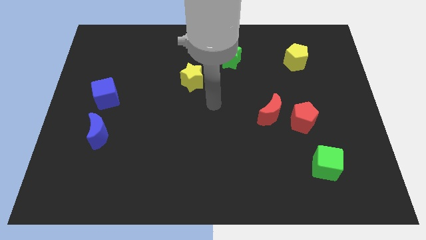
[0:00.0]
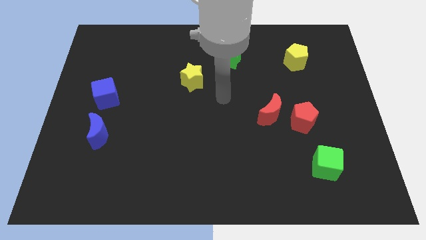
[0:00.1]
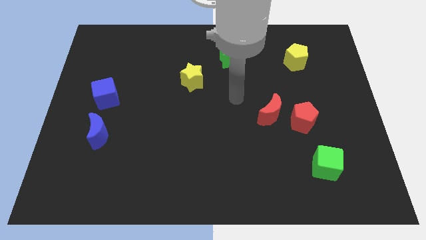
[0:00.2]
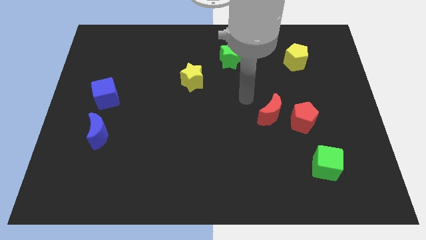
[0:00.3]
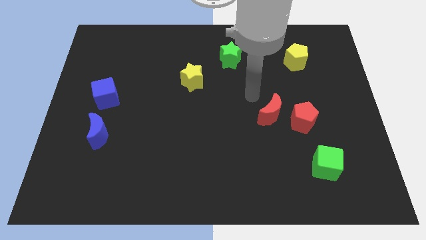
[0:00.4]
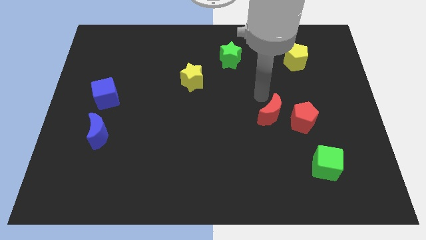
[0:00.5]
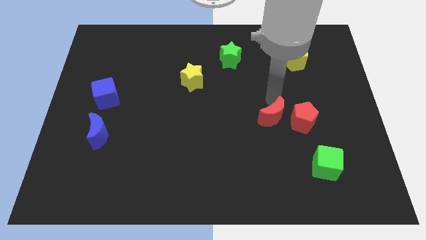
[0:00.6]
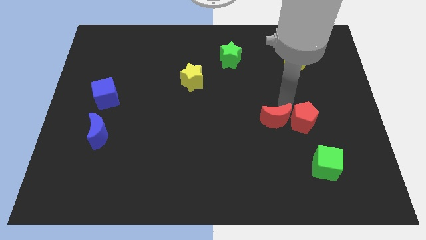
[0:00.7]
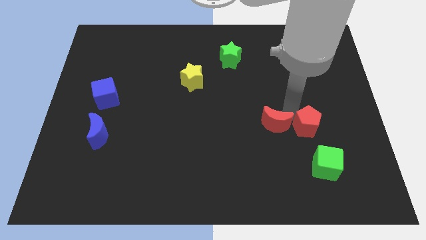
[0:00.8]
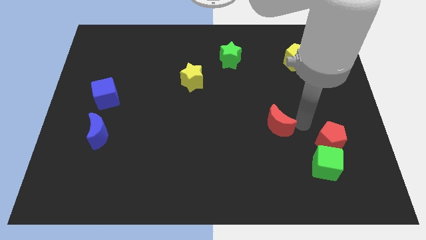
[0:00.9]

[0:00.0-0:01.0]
separate the red moon from the red pentagon

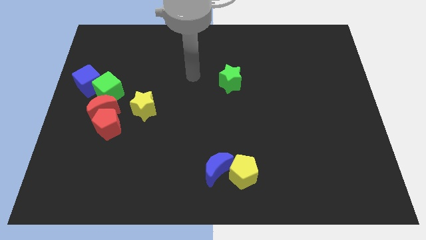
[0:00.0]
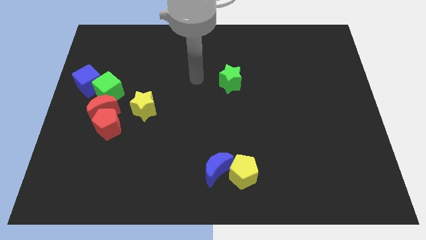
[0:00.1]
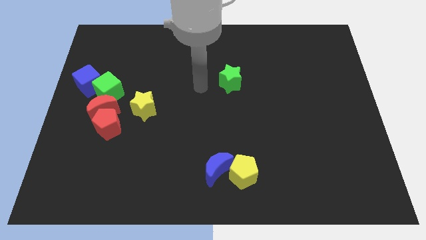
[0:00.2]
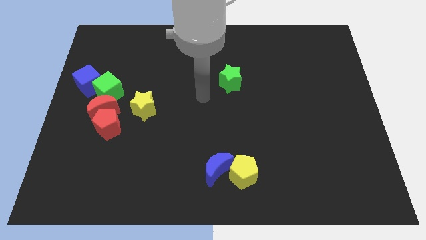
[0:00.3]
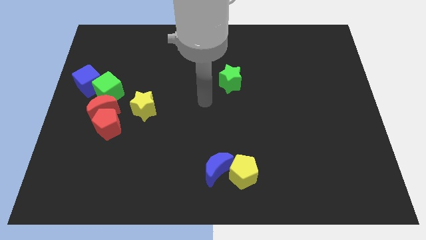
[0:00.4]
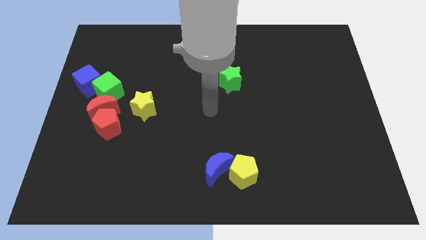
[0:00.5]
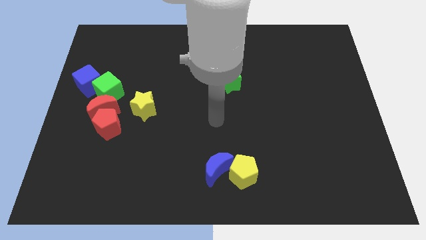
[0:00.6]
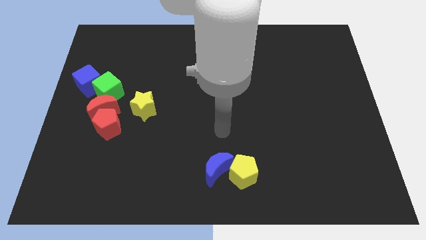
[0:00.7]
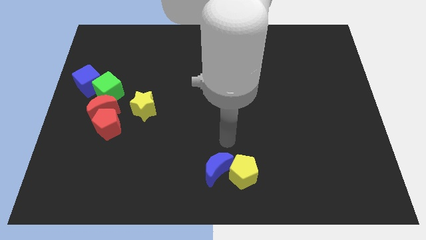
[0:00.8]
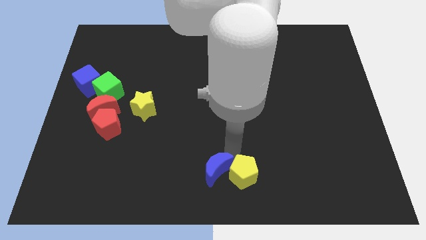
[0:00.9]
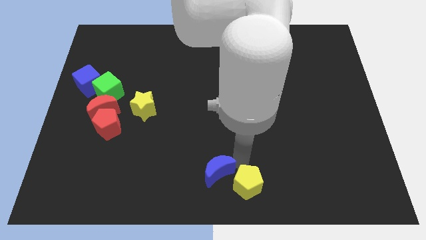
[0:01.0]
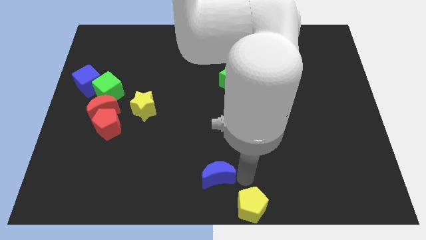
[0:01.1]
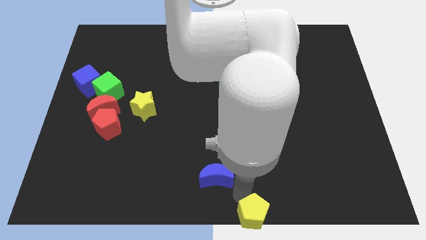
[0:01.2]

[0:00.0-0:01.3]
separate the blue moon from the yellow pentagon

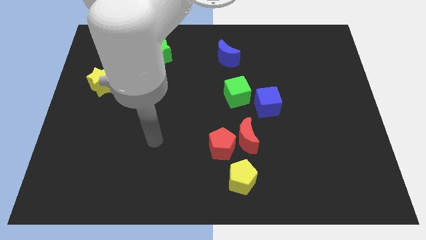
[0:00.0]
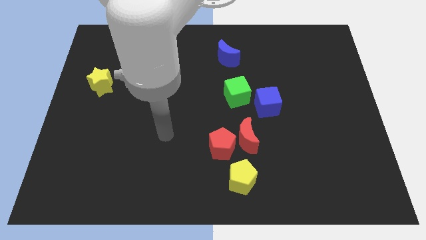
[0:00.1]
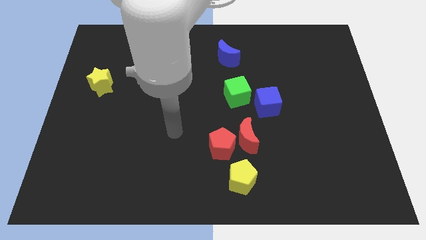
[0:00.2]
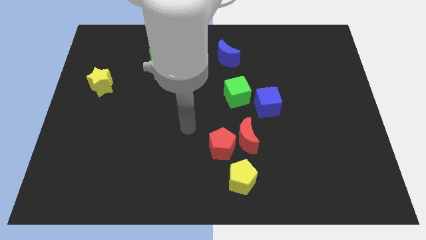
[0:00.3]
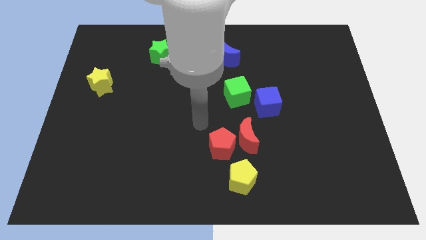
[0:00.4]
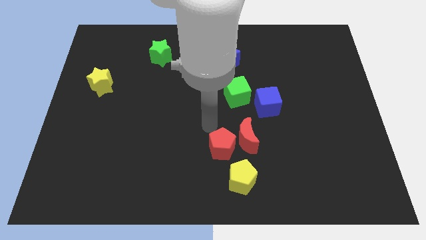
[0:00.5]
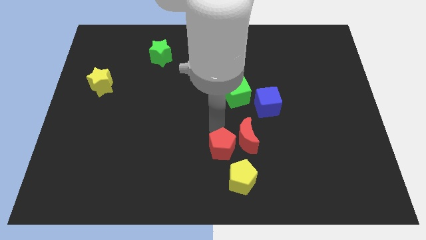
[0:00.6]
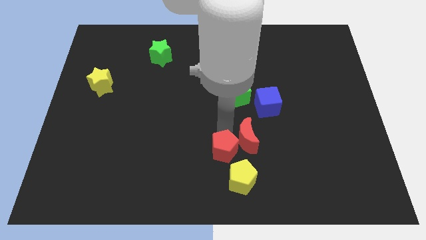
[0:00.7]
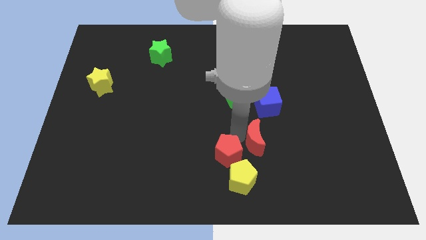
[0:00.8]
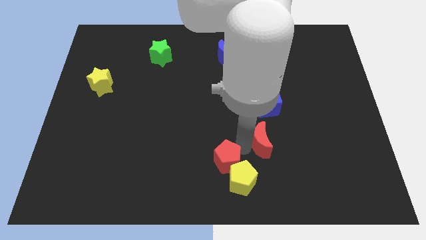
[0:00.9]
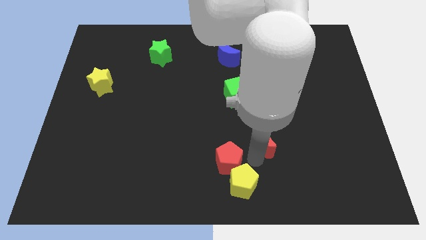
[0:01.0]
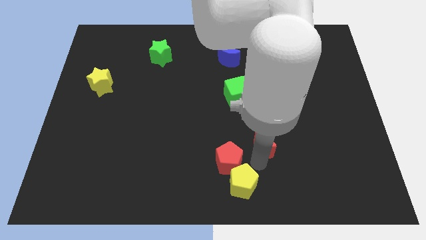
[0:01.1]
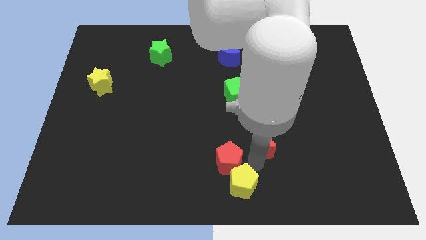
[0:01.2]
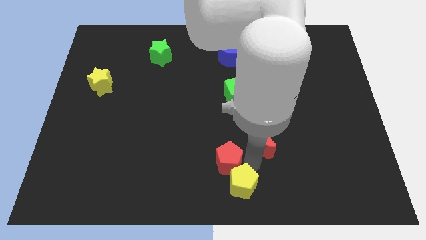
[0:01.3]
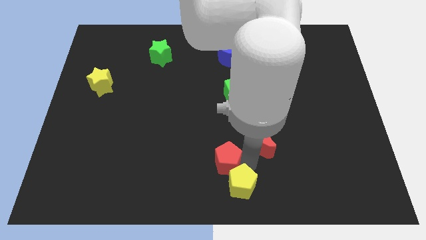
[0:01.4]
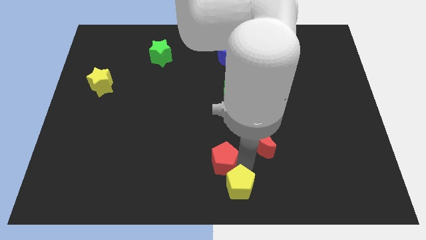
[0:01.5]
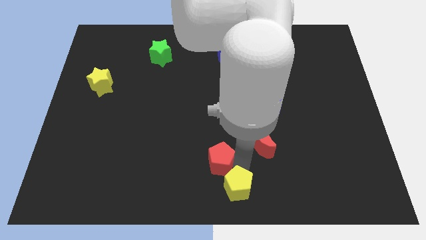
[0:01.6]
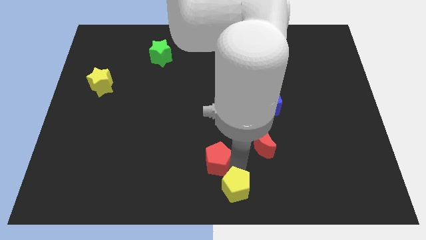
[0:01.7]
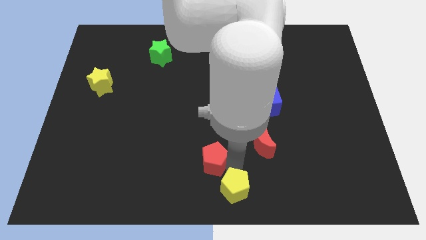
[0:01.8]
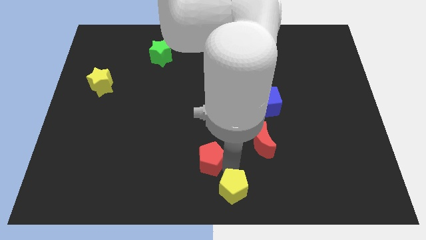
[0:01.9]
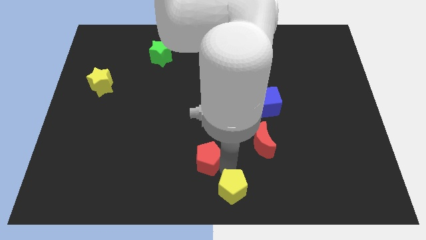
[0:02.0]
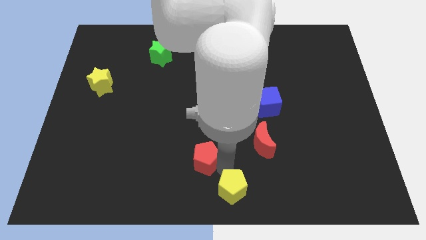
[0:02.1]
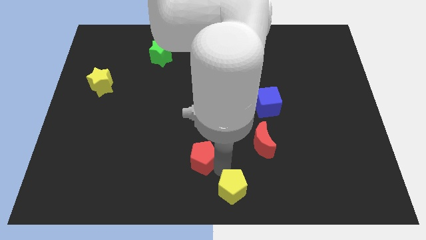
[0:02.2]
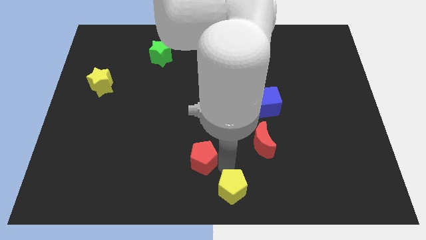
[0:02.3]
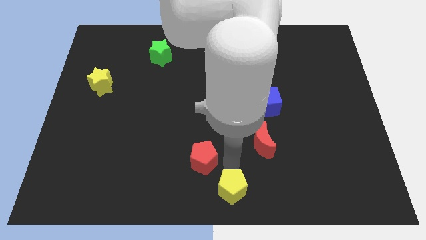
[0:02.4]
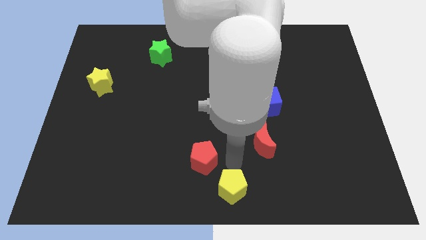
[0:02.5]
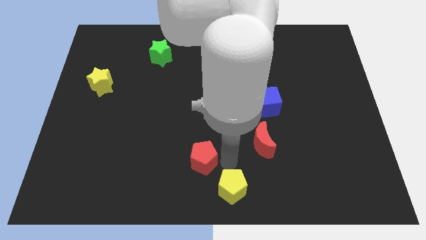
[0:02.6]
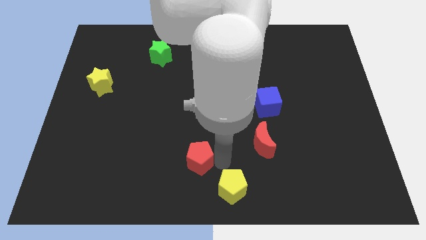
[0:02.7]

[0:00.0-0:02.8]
separate the red pentagon from the red moon and yellow pentagon

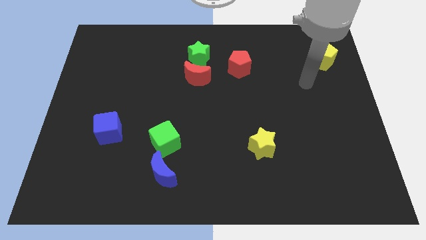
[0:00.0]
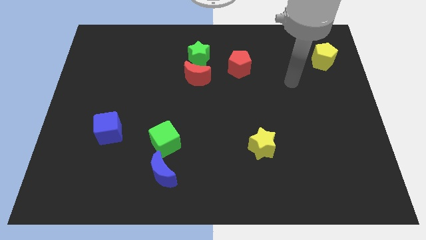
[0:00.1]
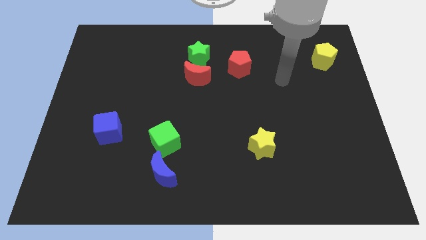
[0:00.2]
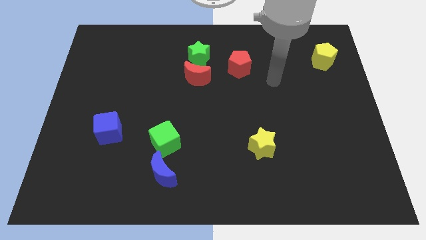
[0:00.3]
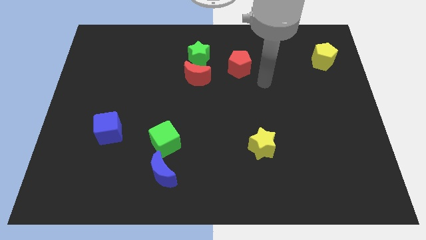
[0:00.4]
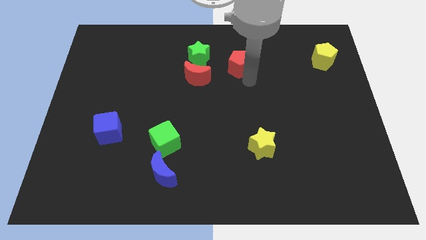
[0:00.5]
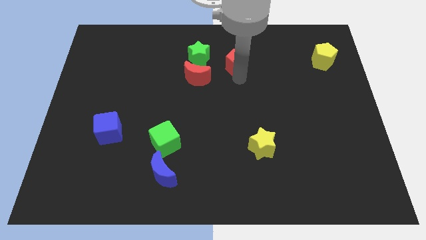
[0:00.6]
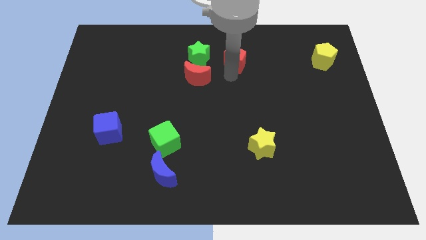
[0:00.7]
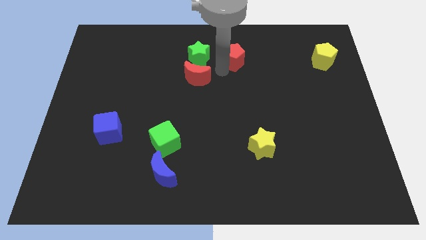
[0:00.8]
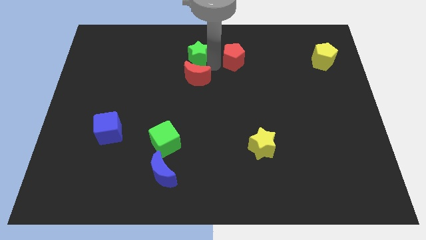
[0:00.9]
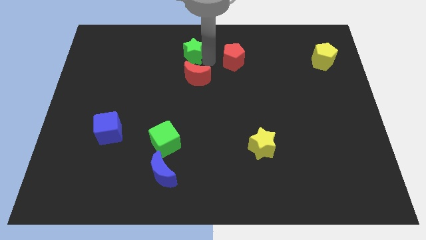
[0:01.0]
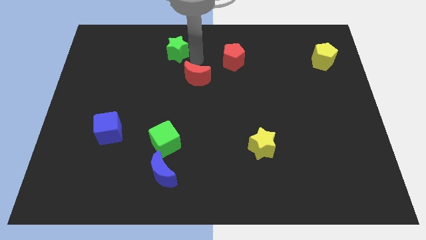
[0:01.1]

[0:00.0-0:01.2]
pull the red moon apart from the green star

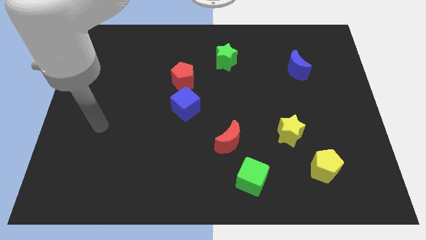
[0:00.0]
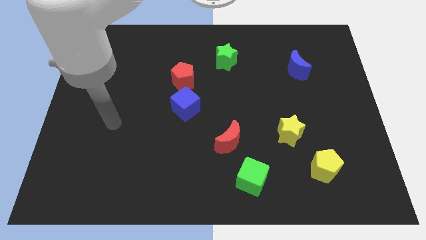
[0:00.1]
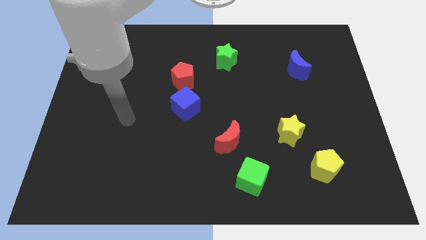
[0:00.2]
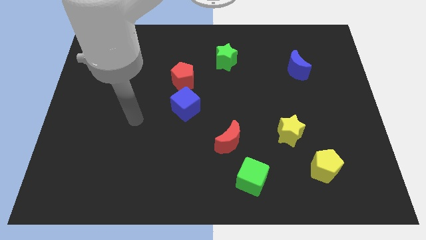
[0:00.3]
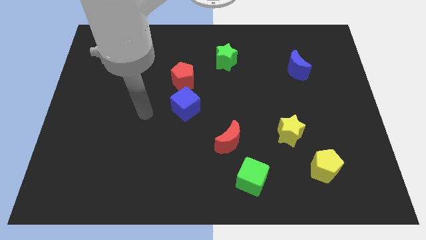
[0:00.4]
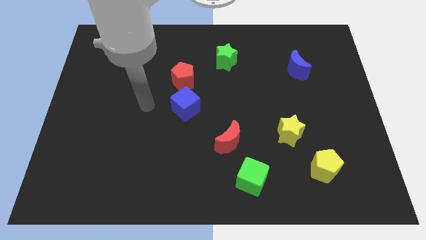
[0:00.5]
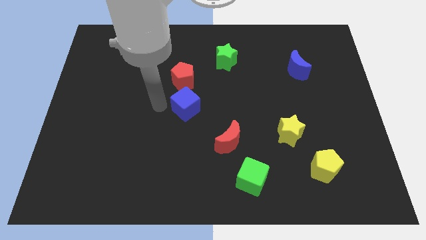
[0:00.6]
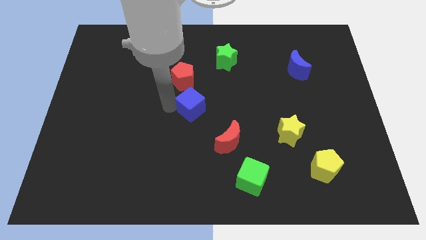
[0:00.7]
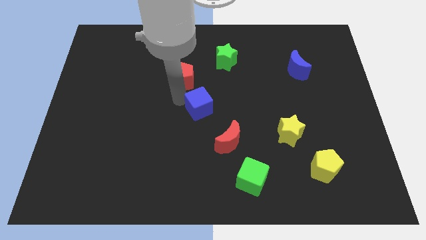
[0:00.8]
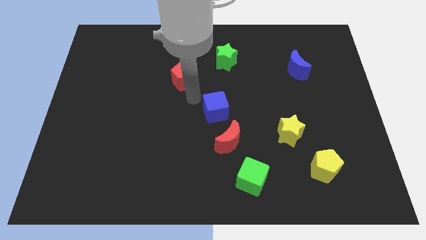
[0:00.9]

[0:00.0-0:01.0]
pull the red pentagon apart from the blue cube

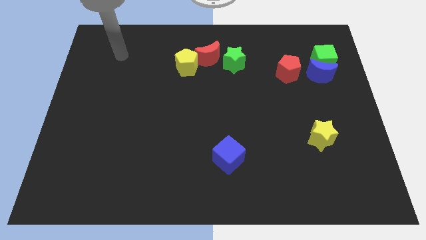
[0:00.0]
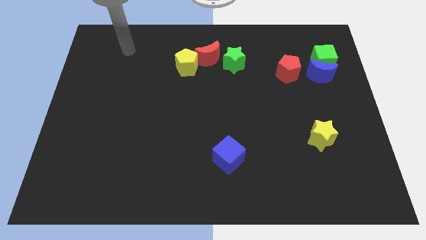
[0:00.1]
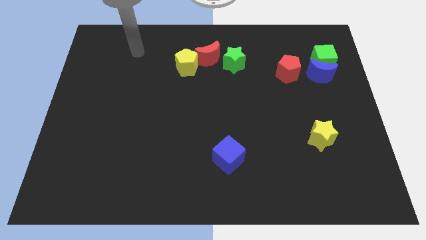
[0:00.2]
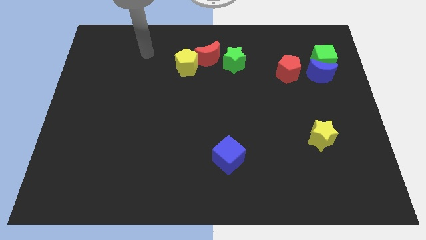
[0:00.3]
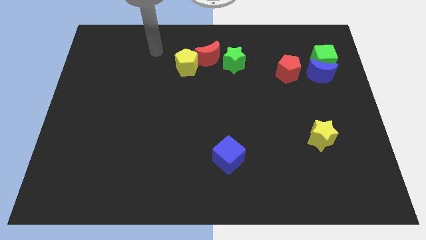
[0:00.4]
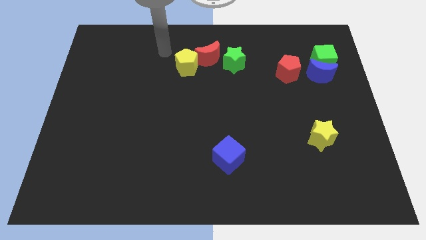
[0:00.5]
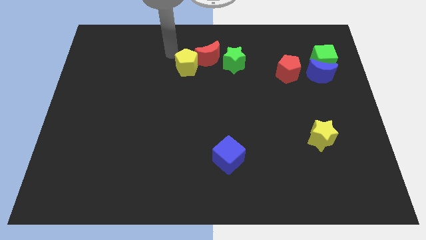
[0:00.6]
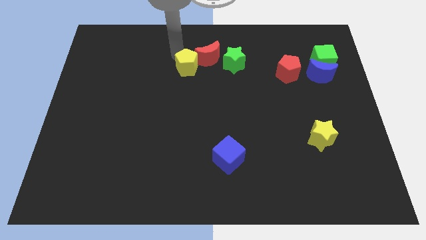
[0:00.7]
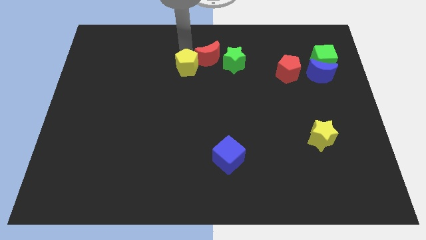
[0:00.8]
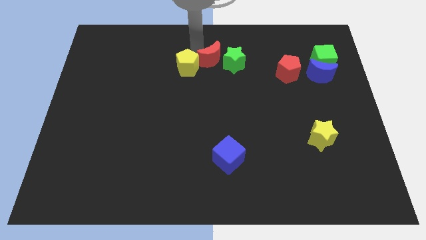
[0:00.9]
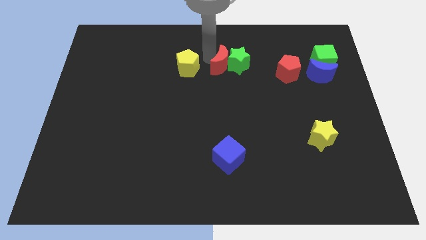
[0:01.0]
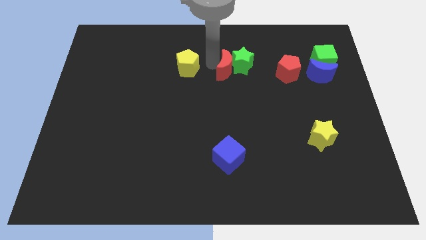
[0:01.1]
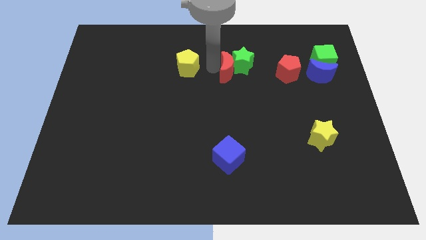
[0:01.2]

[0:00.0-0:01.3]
separate the yellow pentagon from the red moon

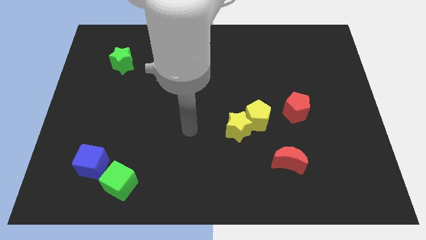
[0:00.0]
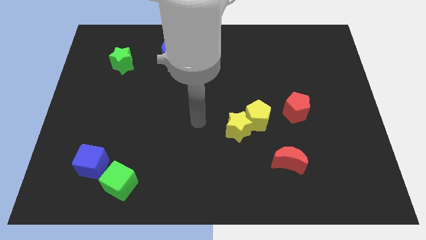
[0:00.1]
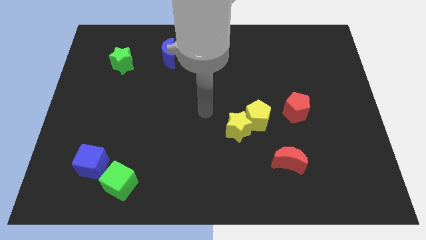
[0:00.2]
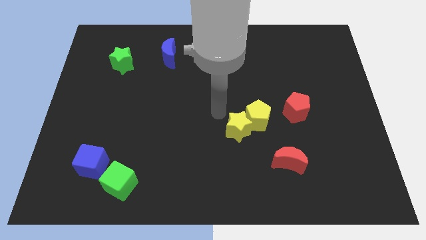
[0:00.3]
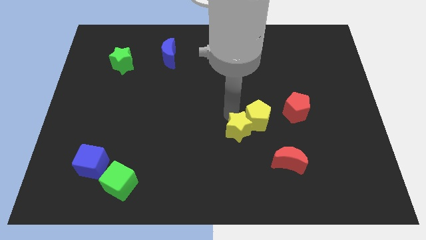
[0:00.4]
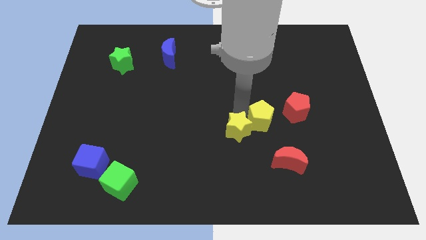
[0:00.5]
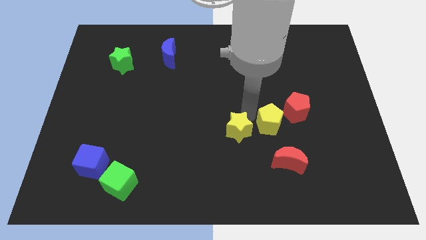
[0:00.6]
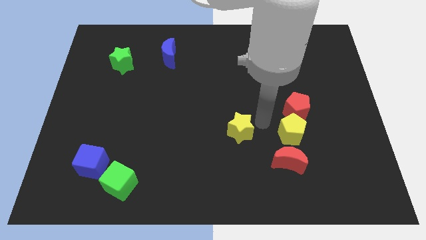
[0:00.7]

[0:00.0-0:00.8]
separate the yellow star from the yellow pentagon
